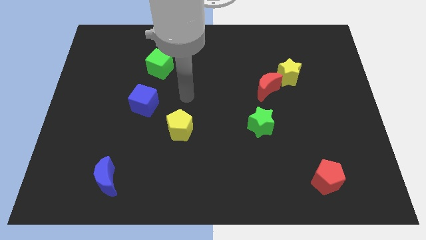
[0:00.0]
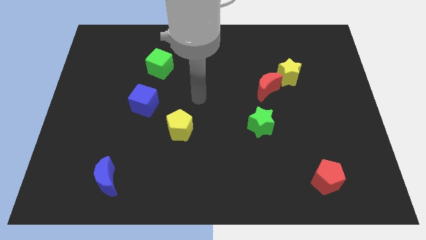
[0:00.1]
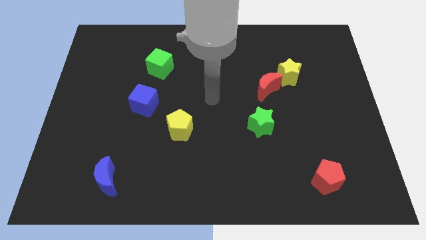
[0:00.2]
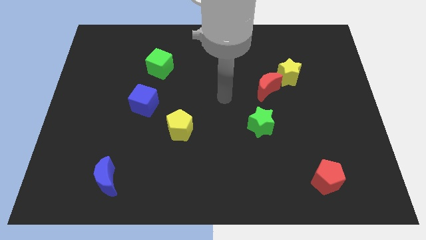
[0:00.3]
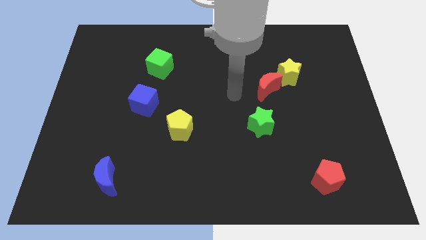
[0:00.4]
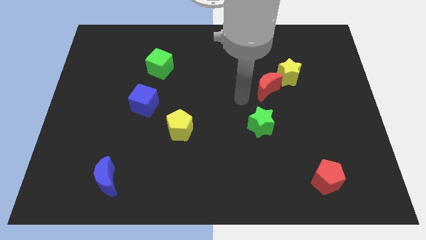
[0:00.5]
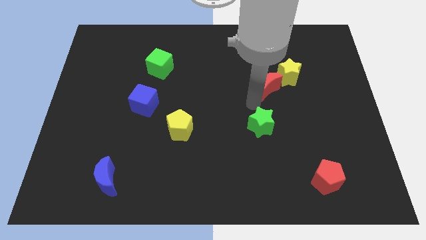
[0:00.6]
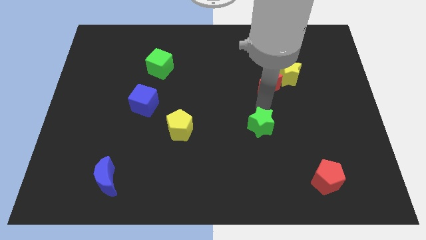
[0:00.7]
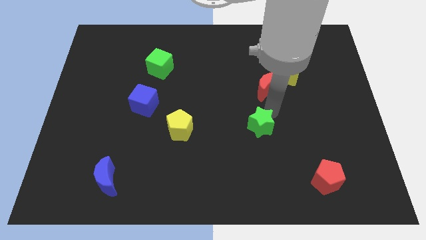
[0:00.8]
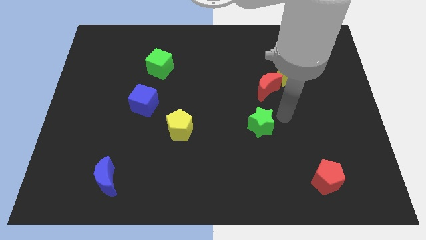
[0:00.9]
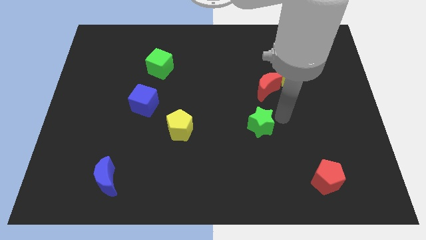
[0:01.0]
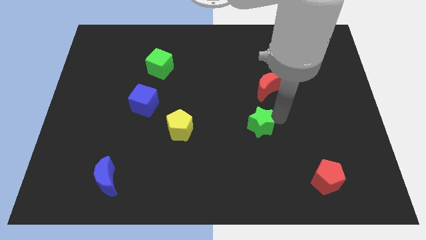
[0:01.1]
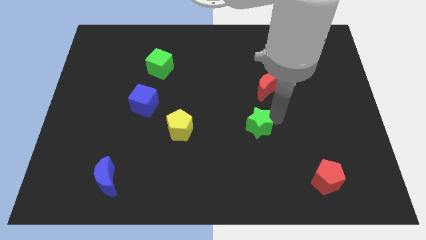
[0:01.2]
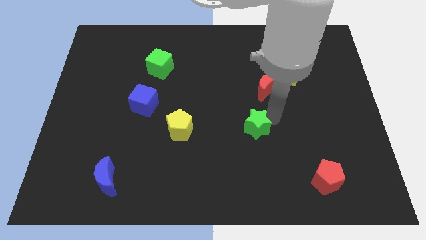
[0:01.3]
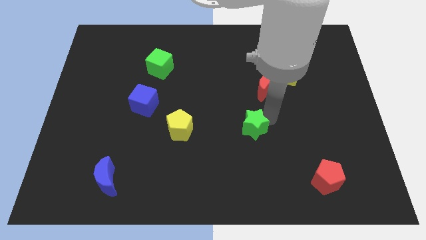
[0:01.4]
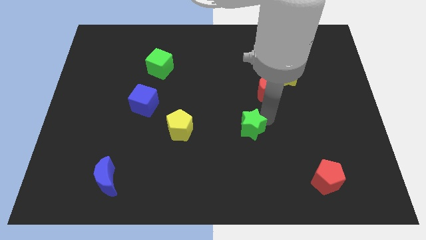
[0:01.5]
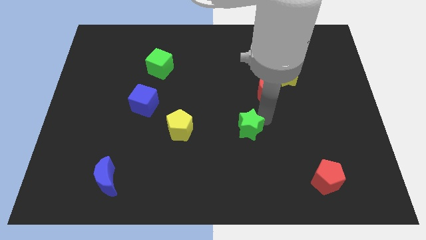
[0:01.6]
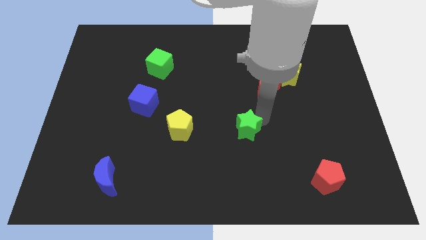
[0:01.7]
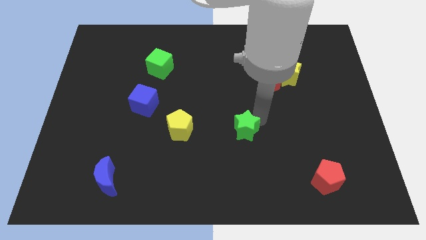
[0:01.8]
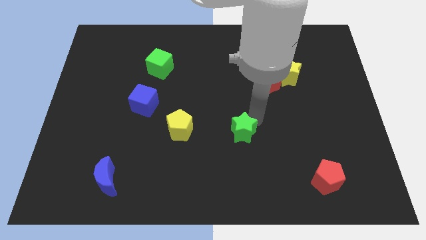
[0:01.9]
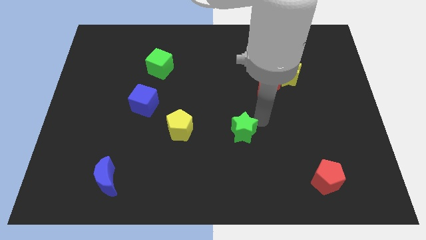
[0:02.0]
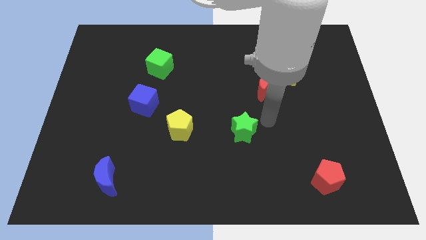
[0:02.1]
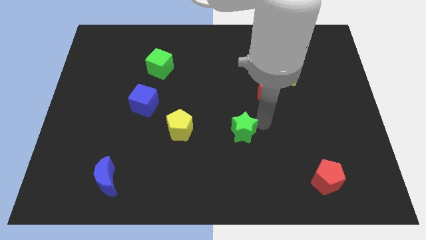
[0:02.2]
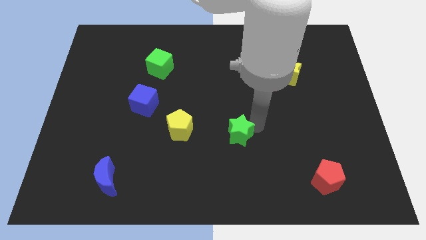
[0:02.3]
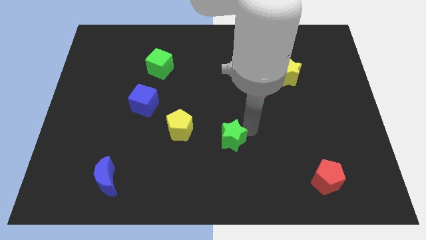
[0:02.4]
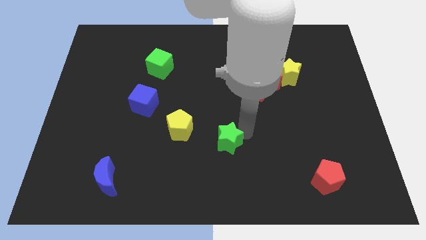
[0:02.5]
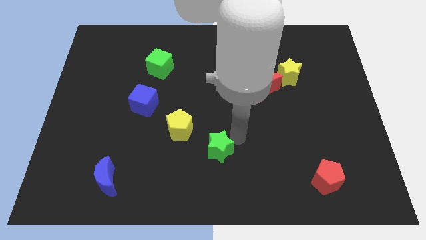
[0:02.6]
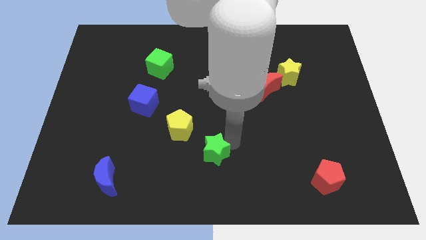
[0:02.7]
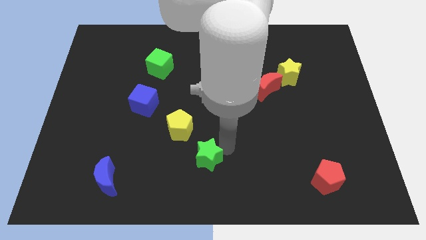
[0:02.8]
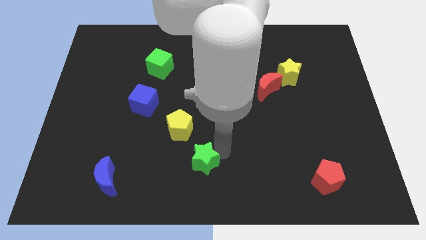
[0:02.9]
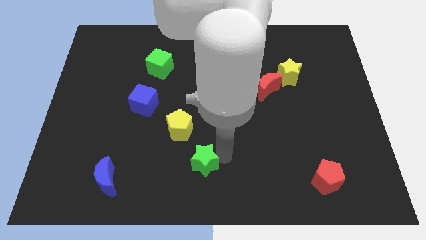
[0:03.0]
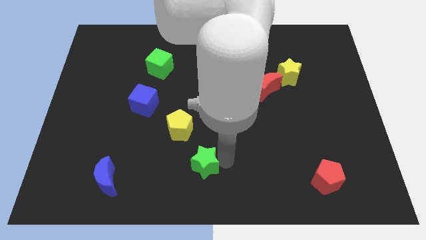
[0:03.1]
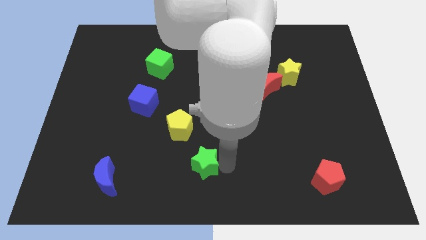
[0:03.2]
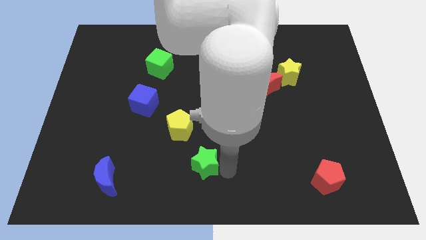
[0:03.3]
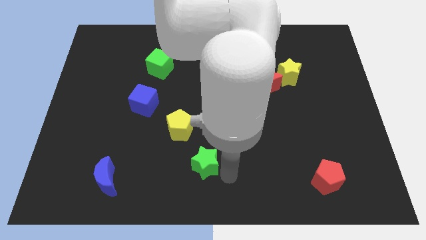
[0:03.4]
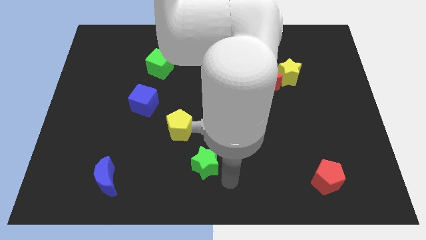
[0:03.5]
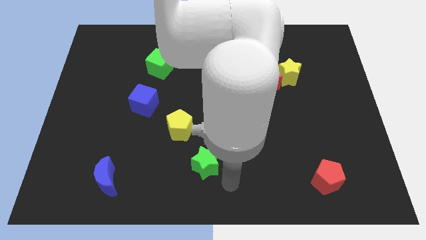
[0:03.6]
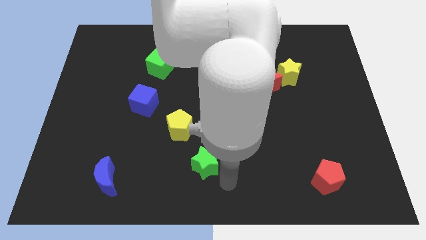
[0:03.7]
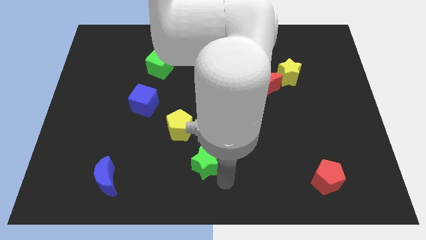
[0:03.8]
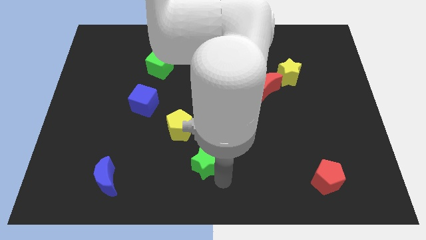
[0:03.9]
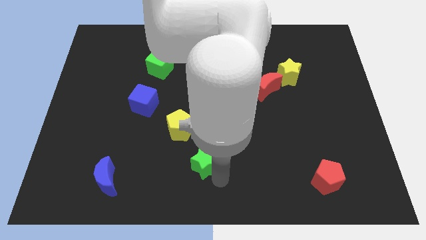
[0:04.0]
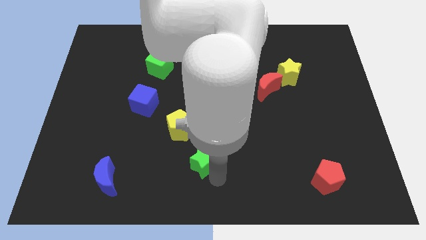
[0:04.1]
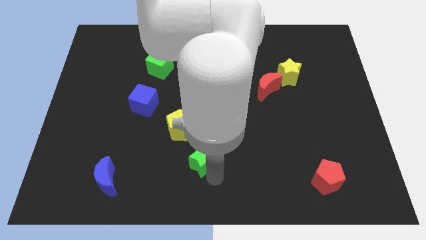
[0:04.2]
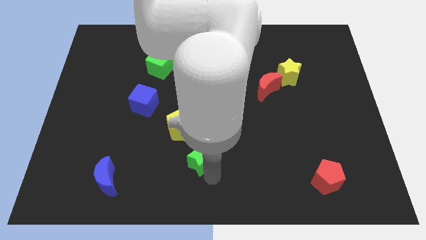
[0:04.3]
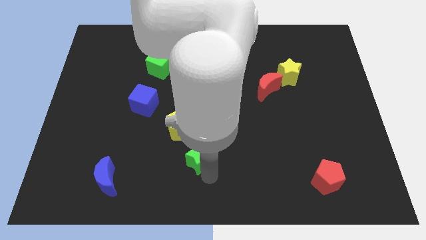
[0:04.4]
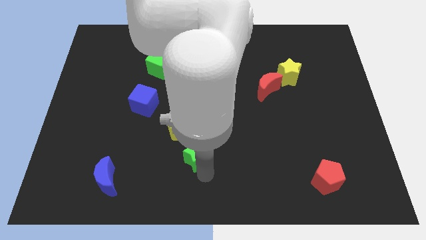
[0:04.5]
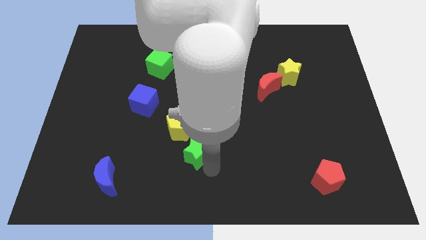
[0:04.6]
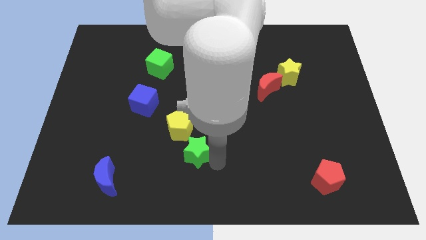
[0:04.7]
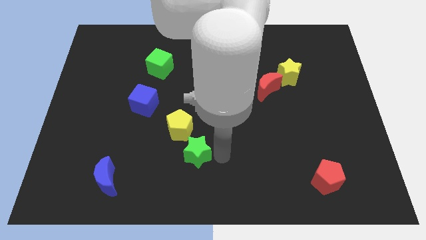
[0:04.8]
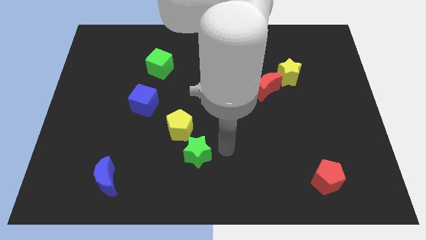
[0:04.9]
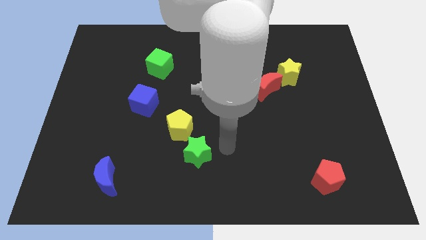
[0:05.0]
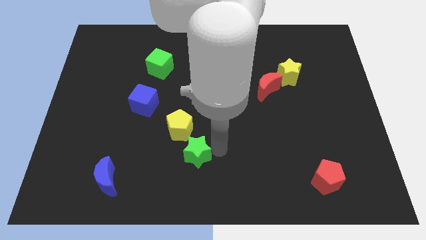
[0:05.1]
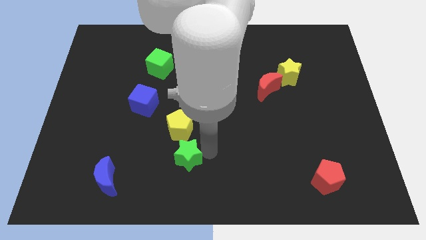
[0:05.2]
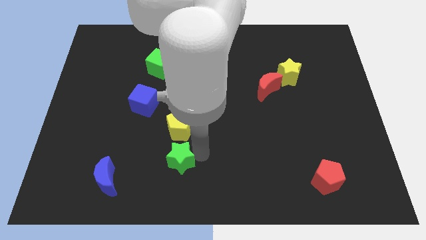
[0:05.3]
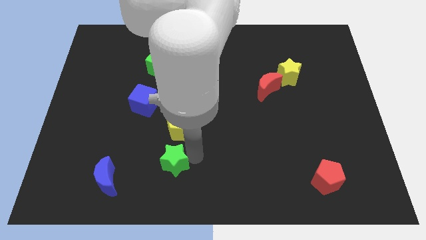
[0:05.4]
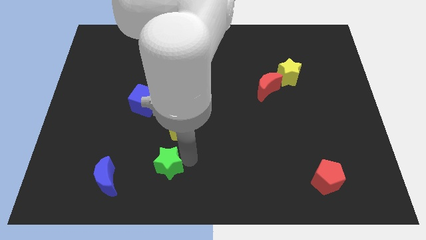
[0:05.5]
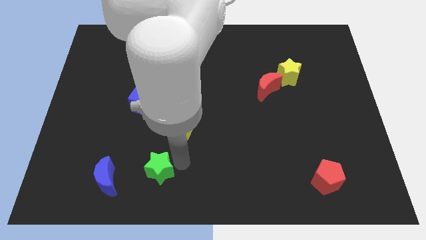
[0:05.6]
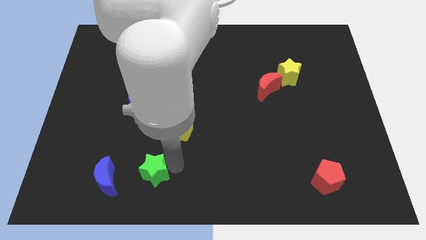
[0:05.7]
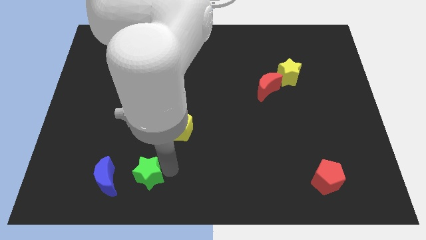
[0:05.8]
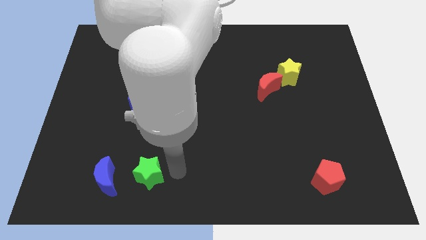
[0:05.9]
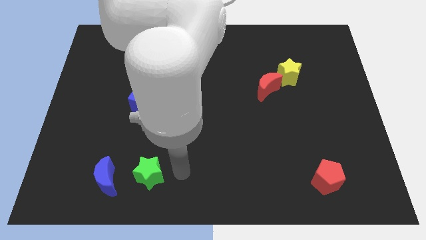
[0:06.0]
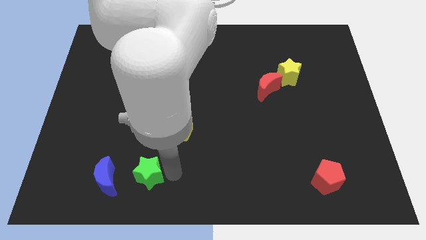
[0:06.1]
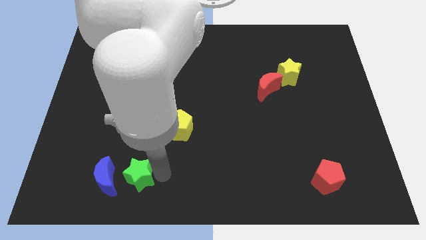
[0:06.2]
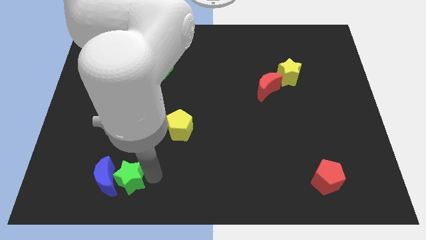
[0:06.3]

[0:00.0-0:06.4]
push the green star next to the blue moon
